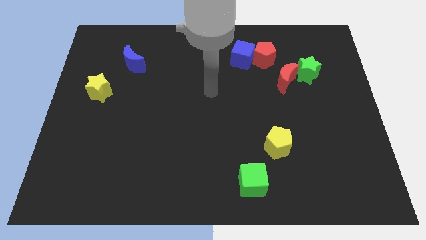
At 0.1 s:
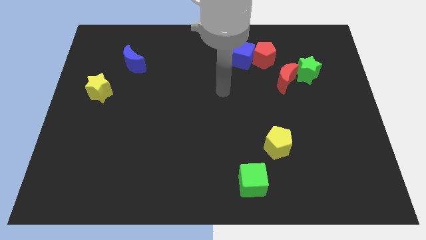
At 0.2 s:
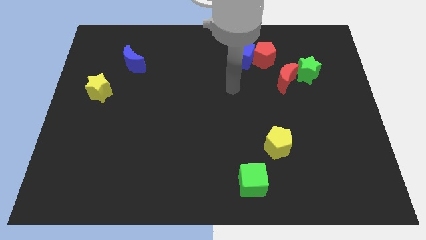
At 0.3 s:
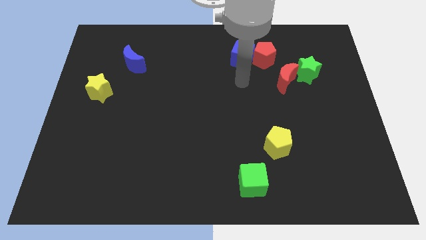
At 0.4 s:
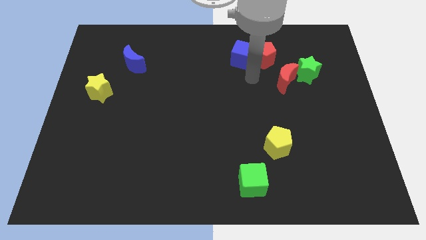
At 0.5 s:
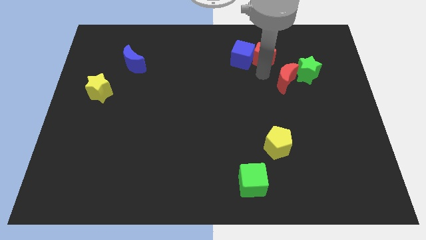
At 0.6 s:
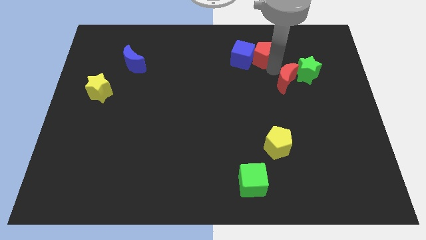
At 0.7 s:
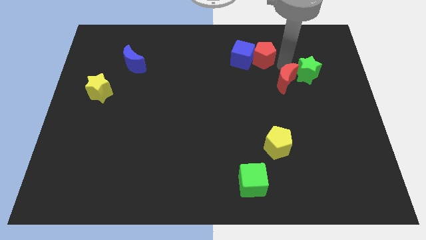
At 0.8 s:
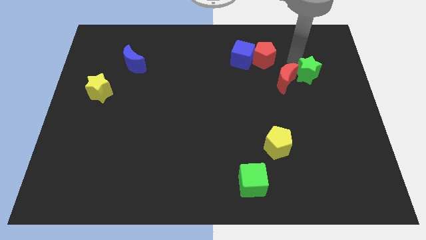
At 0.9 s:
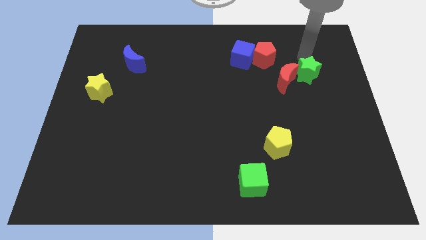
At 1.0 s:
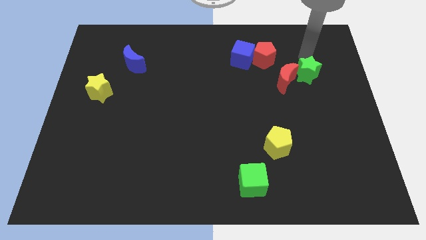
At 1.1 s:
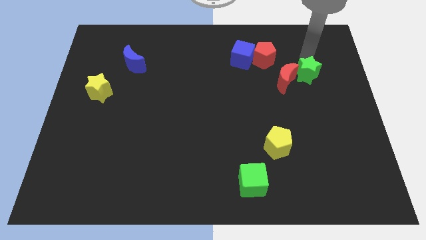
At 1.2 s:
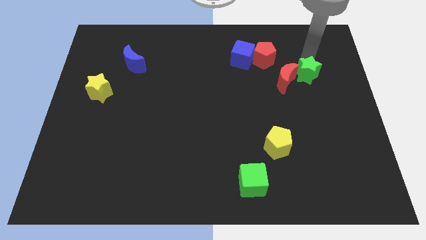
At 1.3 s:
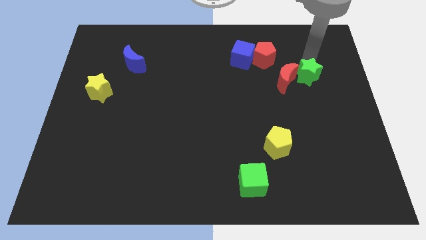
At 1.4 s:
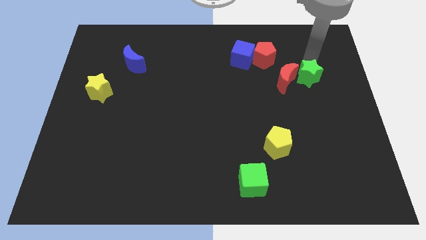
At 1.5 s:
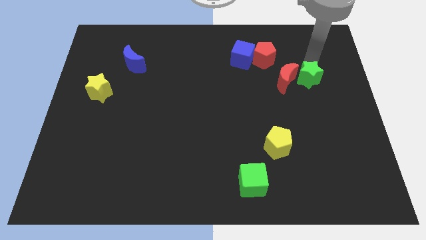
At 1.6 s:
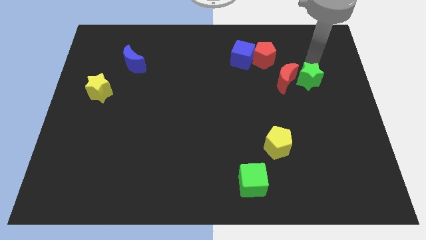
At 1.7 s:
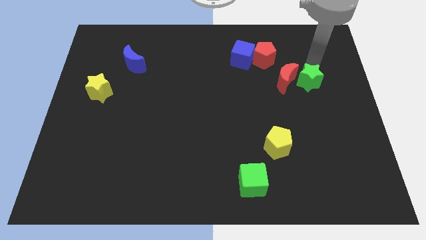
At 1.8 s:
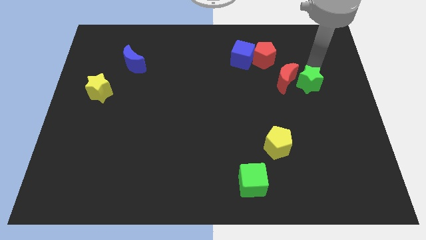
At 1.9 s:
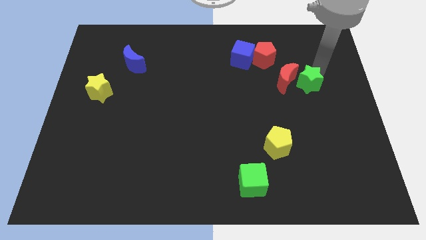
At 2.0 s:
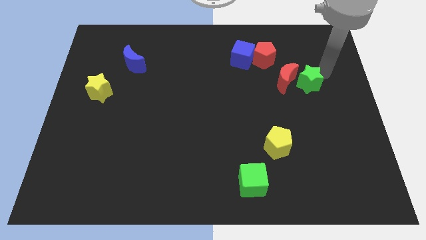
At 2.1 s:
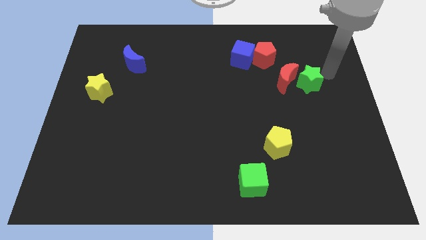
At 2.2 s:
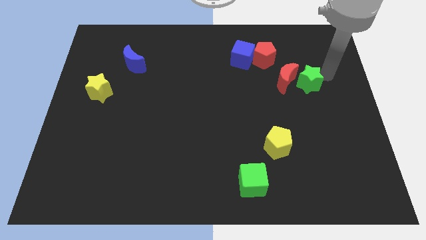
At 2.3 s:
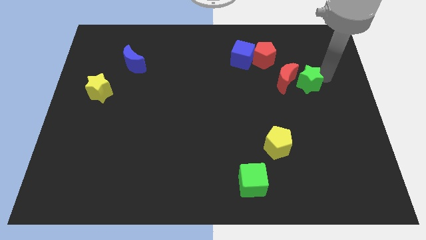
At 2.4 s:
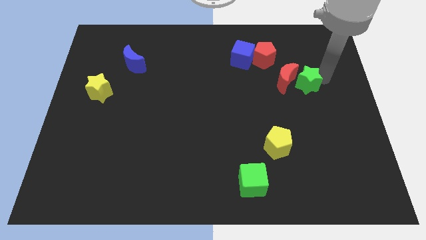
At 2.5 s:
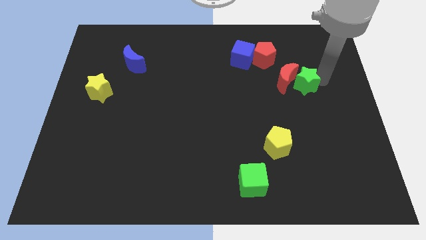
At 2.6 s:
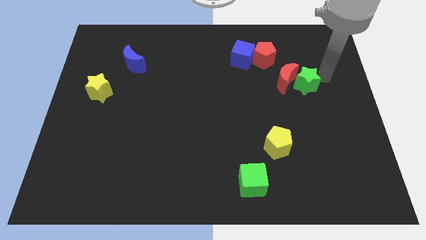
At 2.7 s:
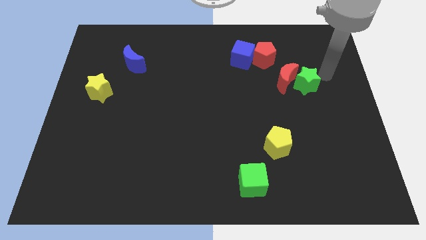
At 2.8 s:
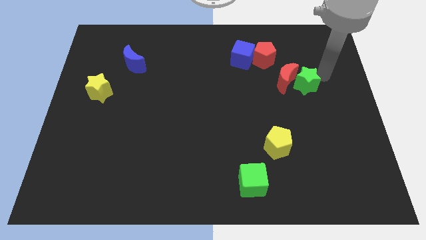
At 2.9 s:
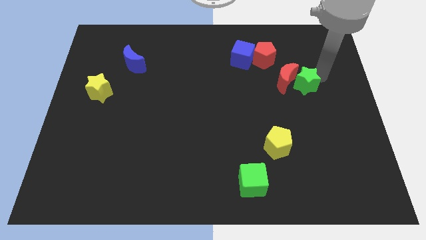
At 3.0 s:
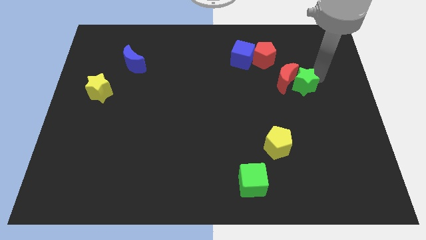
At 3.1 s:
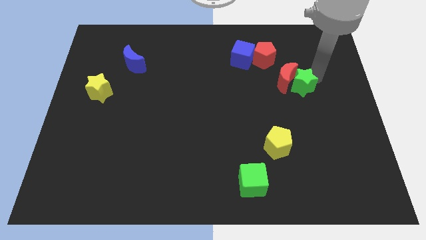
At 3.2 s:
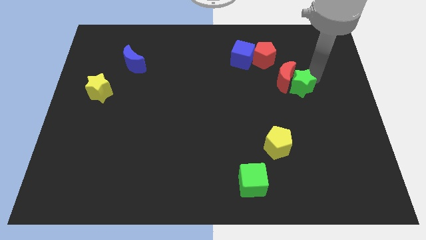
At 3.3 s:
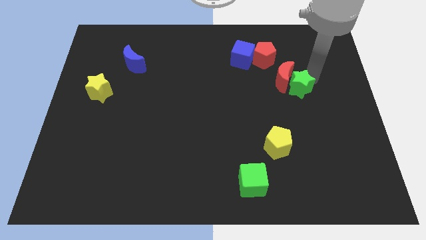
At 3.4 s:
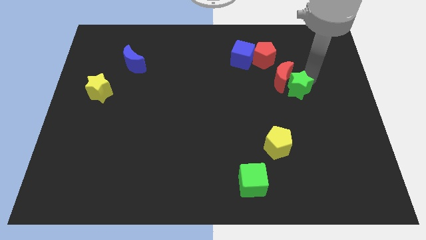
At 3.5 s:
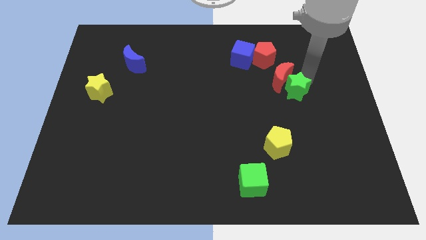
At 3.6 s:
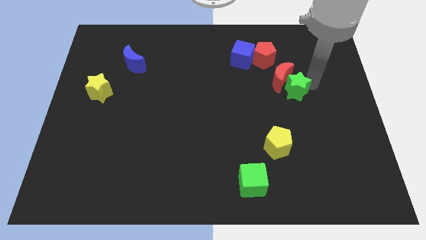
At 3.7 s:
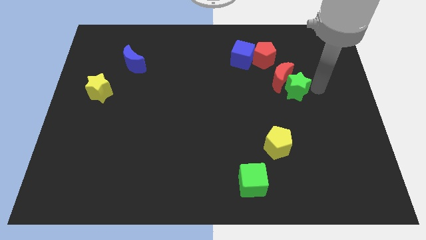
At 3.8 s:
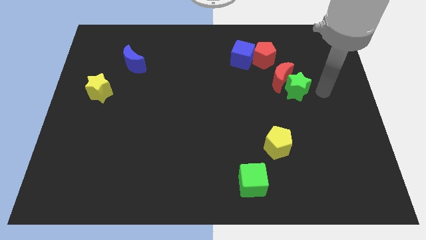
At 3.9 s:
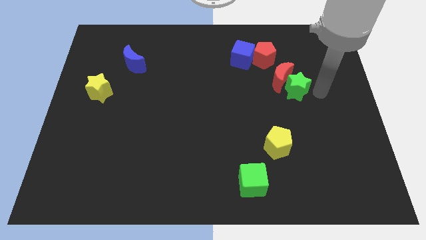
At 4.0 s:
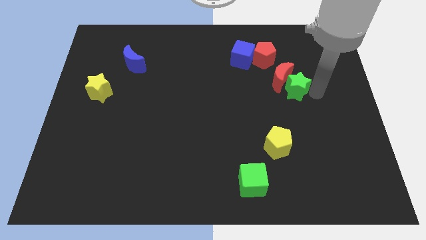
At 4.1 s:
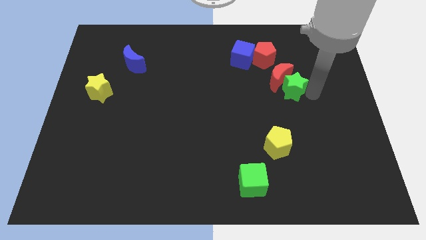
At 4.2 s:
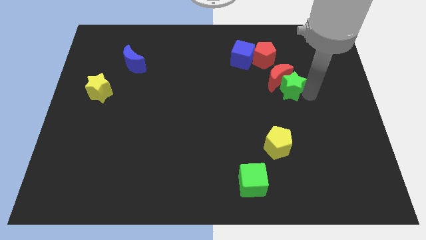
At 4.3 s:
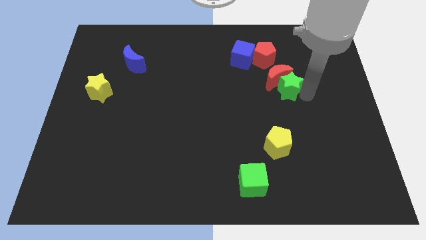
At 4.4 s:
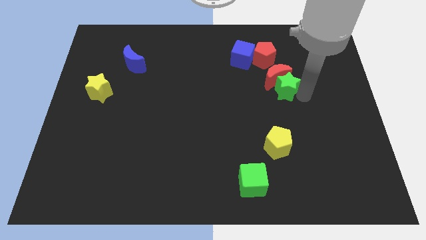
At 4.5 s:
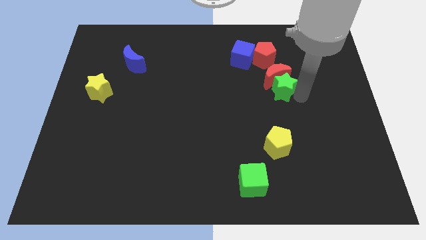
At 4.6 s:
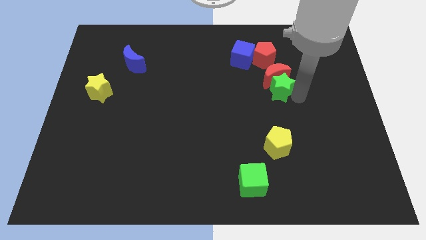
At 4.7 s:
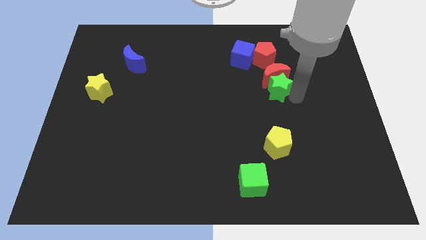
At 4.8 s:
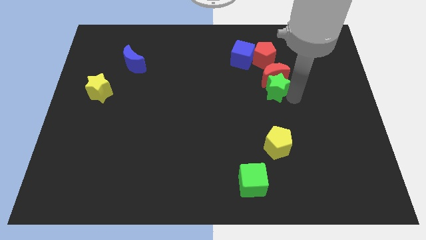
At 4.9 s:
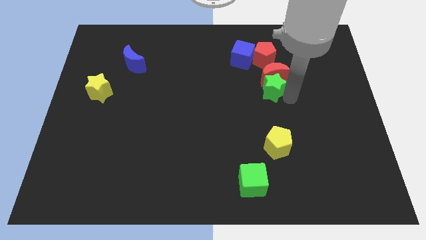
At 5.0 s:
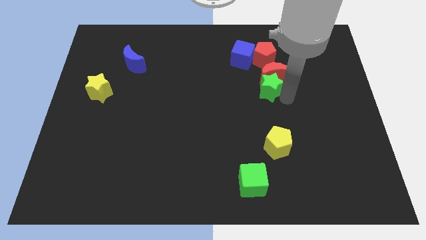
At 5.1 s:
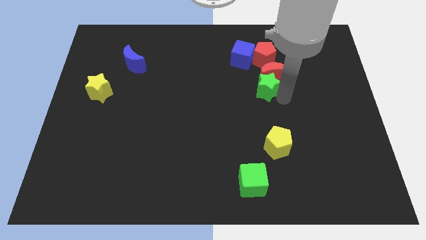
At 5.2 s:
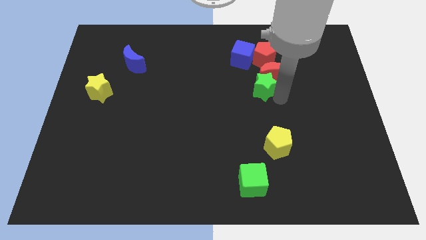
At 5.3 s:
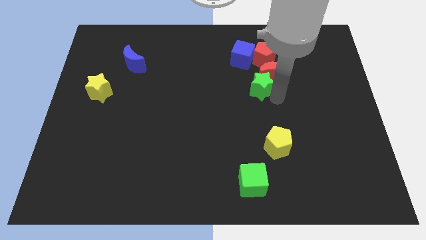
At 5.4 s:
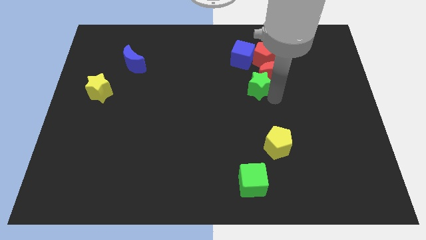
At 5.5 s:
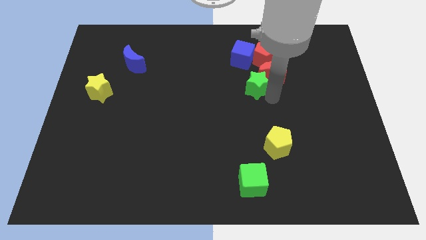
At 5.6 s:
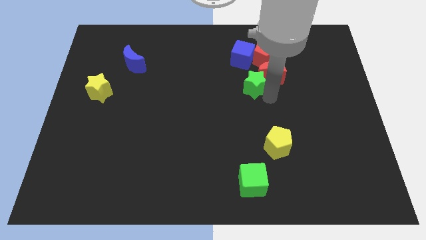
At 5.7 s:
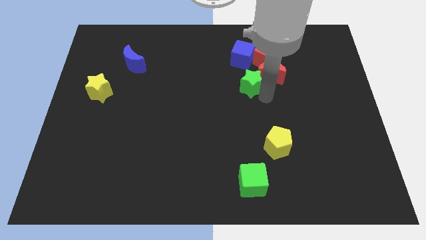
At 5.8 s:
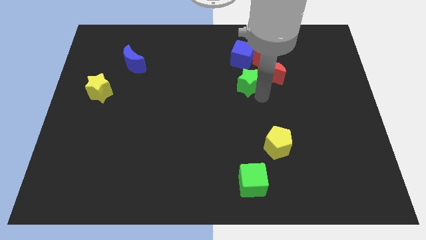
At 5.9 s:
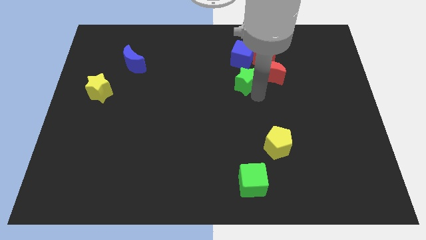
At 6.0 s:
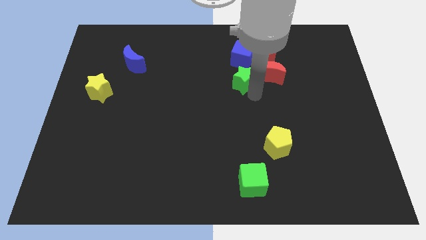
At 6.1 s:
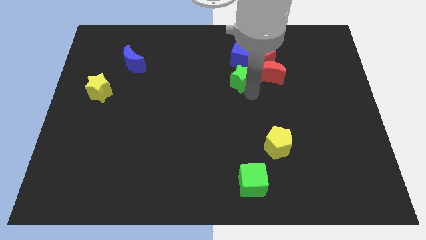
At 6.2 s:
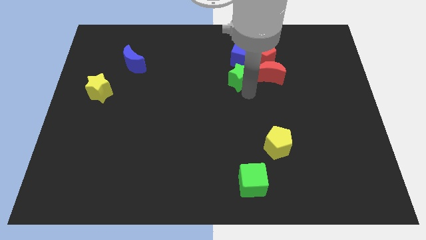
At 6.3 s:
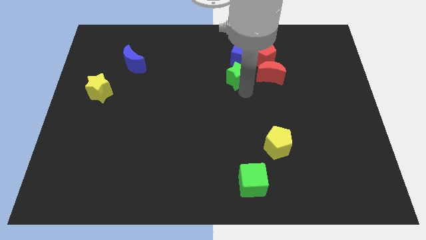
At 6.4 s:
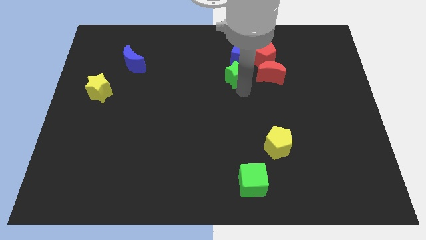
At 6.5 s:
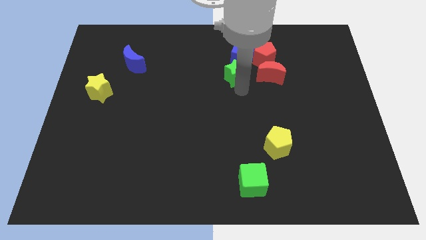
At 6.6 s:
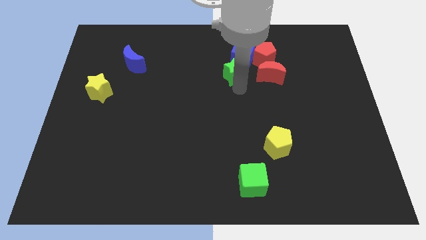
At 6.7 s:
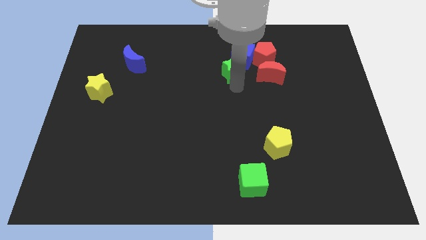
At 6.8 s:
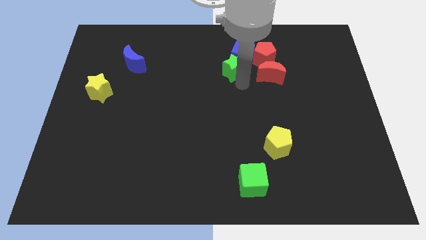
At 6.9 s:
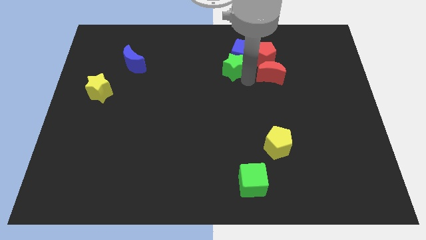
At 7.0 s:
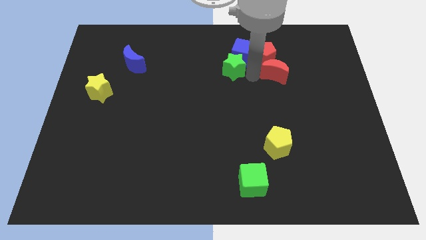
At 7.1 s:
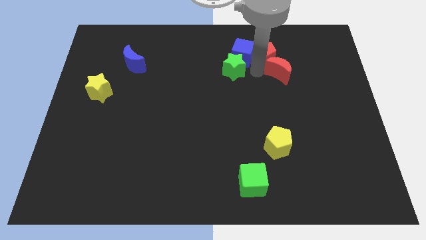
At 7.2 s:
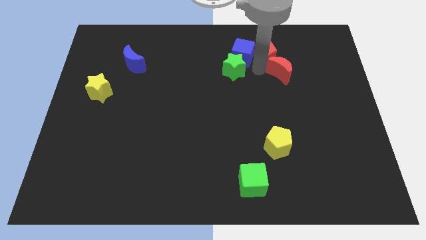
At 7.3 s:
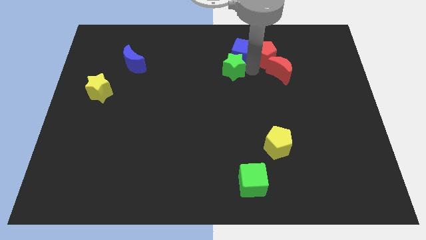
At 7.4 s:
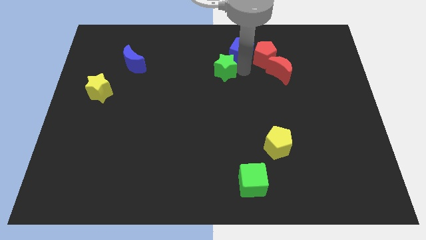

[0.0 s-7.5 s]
slide the green star left

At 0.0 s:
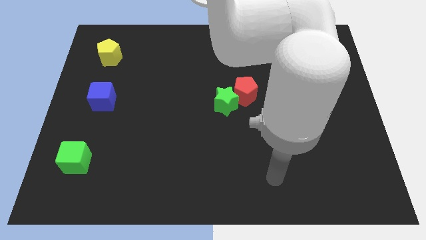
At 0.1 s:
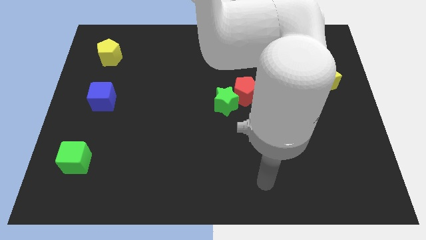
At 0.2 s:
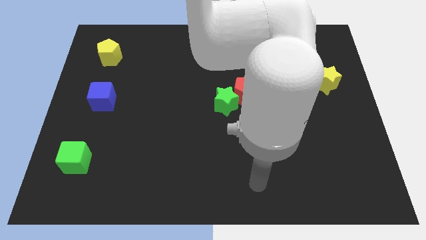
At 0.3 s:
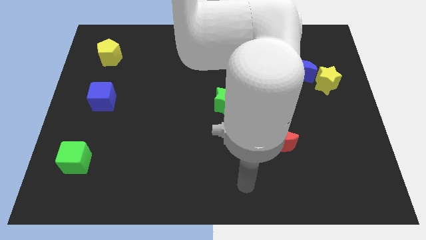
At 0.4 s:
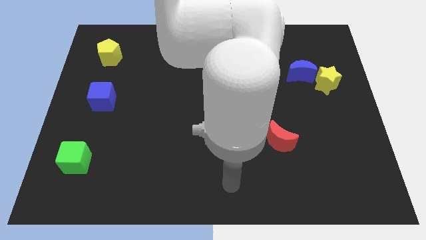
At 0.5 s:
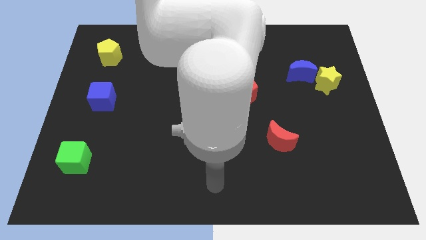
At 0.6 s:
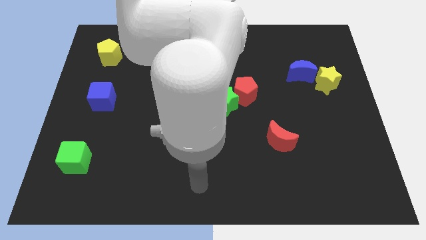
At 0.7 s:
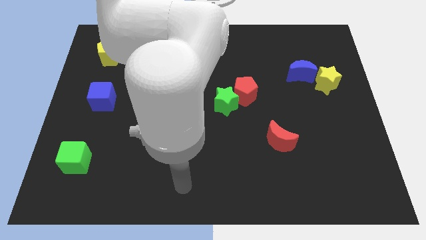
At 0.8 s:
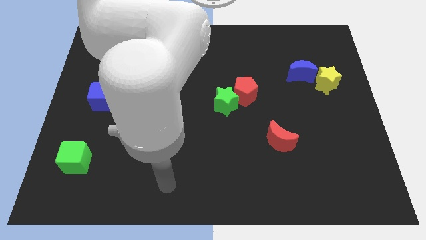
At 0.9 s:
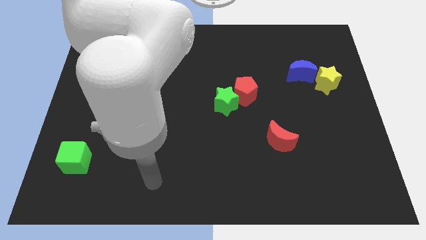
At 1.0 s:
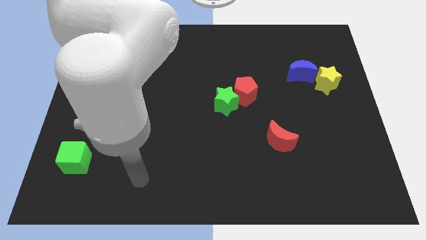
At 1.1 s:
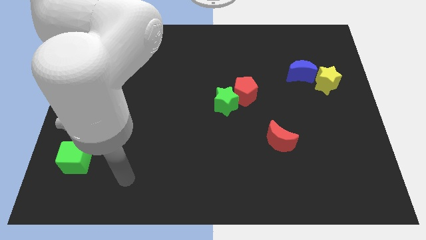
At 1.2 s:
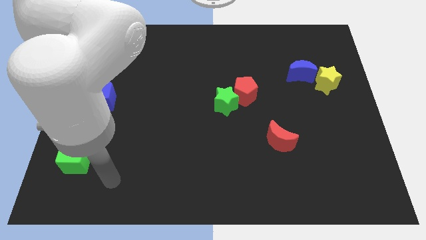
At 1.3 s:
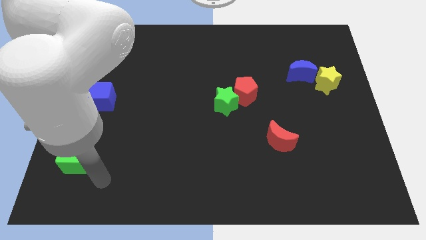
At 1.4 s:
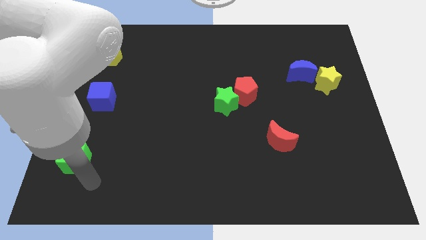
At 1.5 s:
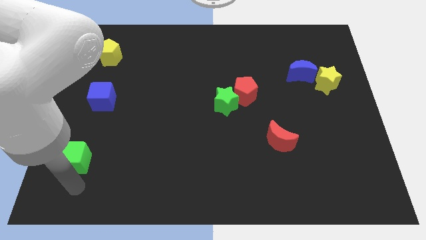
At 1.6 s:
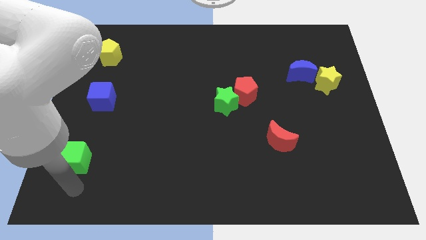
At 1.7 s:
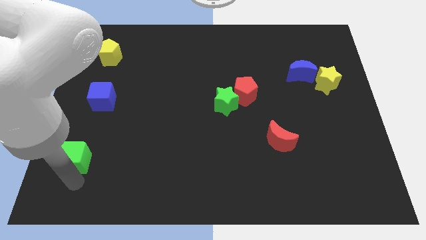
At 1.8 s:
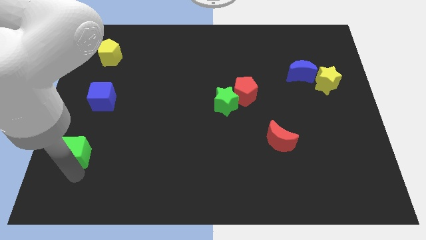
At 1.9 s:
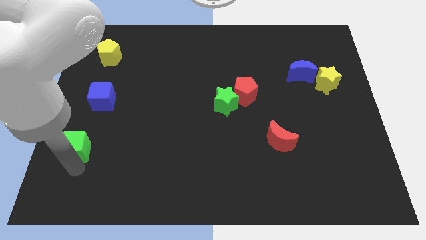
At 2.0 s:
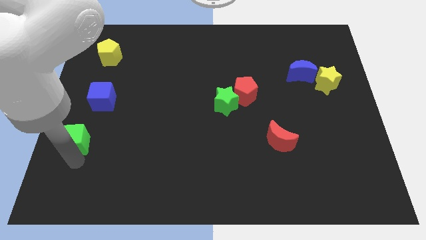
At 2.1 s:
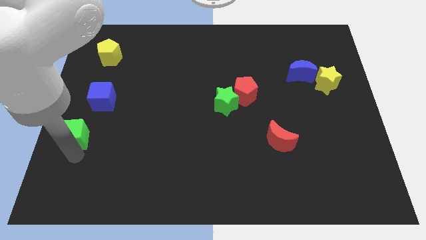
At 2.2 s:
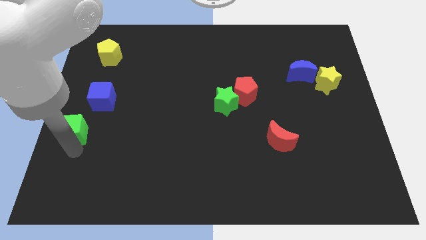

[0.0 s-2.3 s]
slightly slide the green cube up
